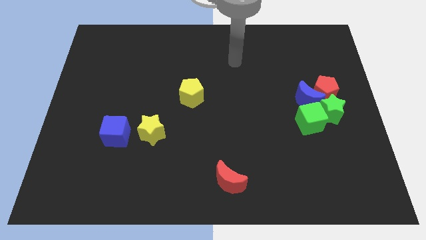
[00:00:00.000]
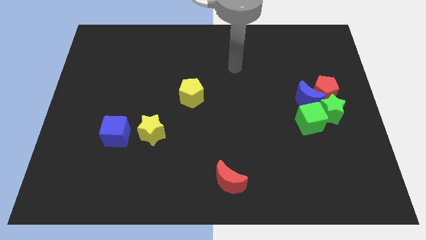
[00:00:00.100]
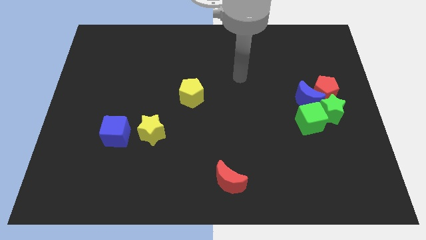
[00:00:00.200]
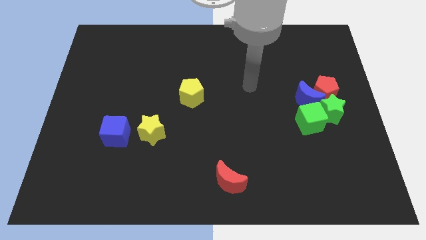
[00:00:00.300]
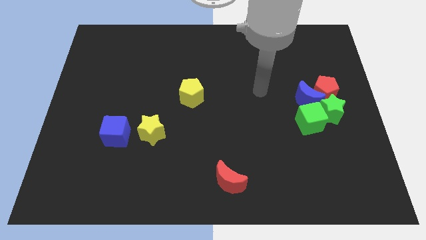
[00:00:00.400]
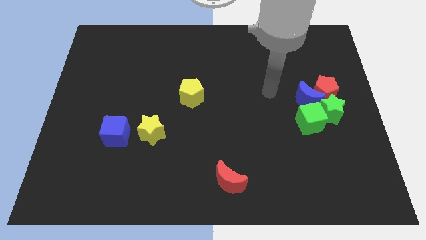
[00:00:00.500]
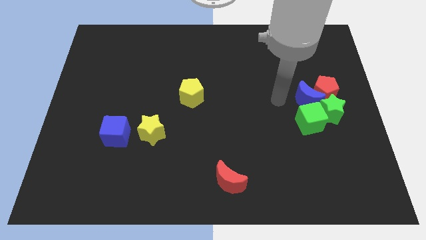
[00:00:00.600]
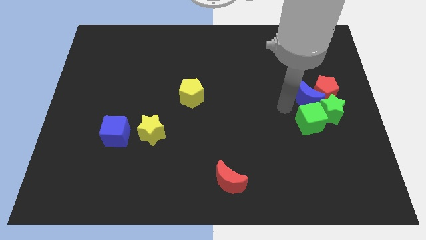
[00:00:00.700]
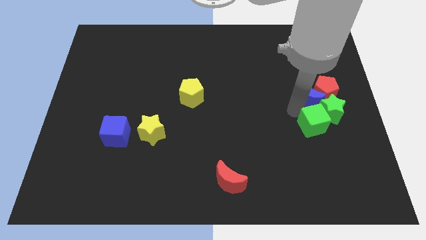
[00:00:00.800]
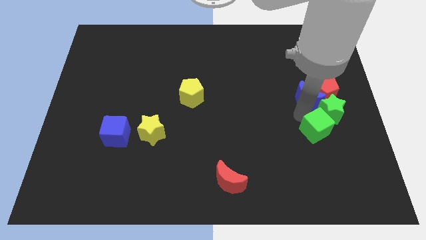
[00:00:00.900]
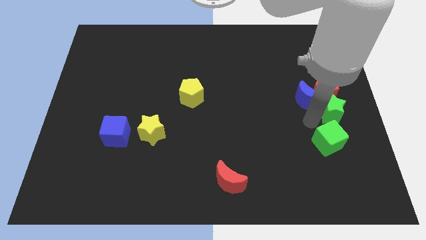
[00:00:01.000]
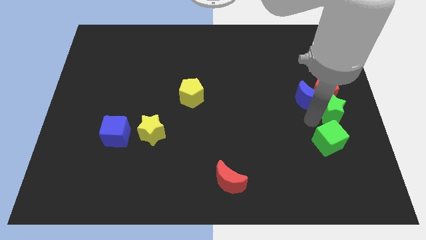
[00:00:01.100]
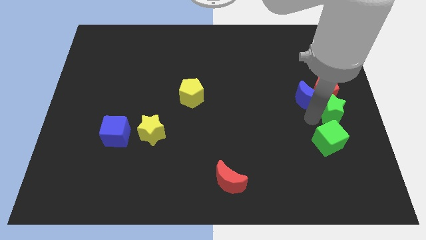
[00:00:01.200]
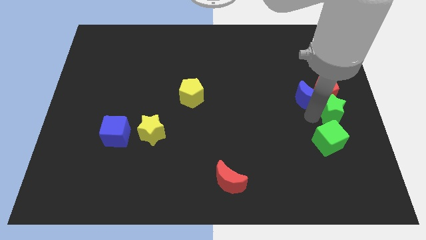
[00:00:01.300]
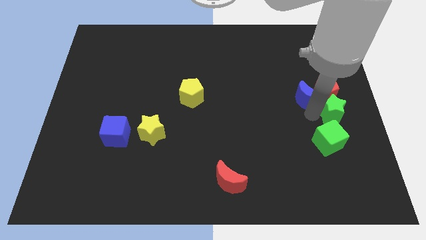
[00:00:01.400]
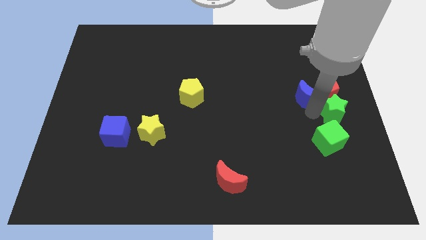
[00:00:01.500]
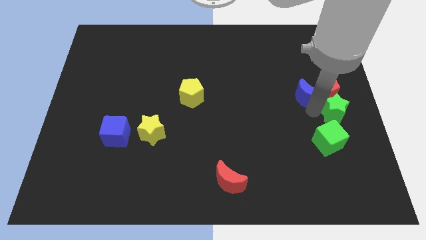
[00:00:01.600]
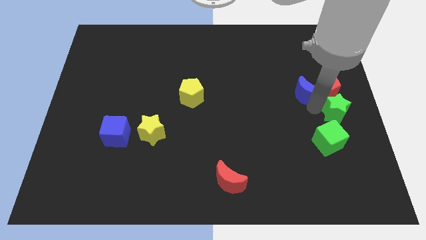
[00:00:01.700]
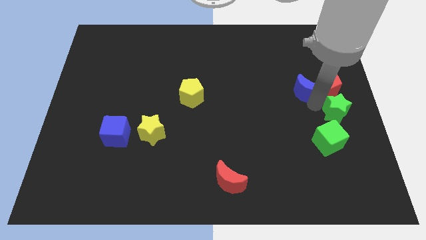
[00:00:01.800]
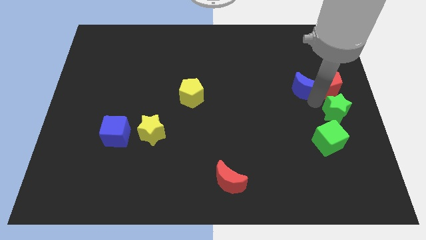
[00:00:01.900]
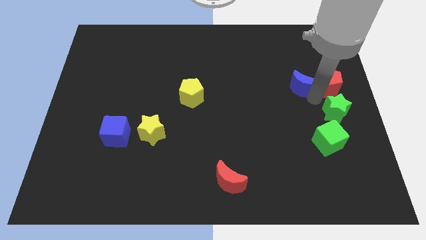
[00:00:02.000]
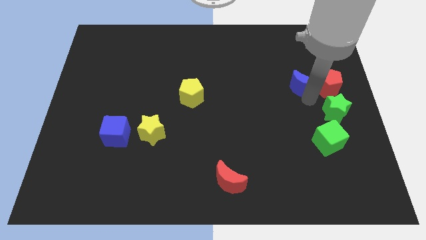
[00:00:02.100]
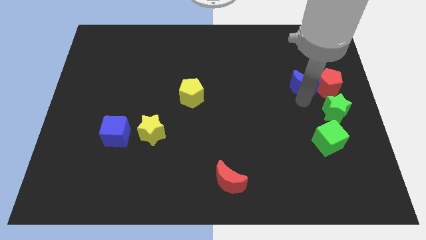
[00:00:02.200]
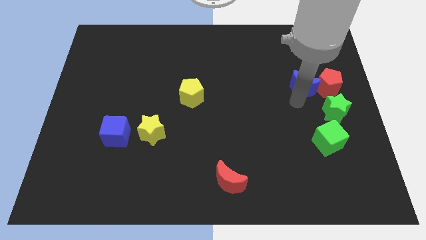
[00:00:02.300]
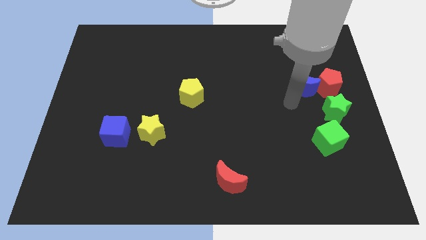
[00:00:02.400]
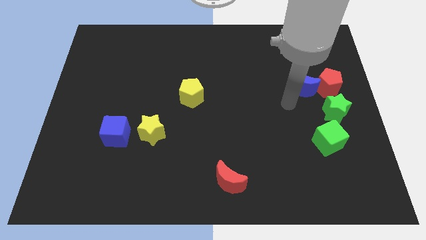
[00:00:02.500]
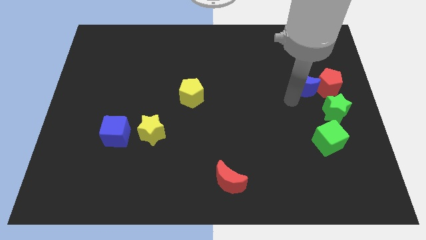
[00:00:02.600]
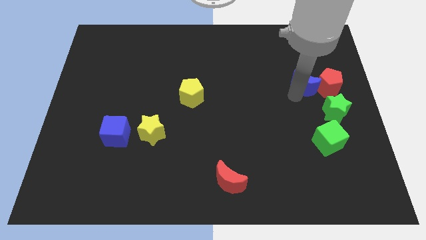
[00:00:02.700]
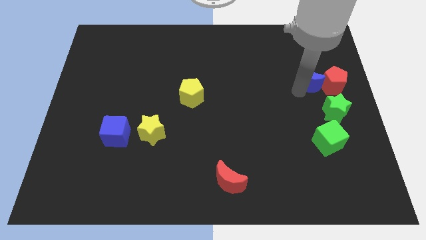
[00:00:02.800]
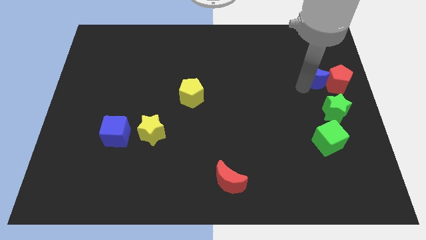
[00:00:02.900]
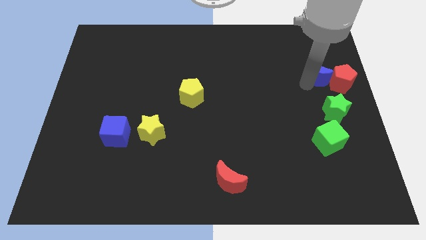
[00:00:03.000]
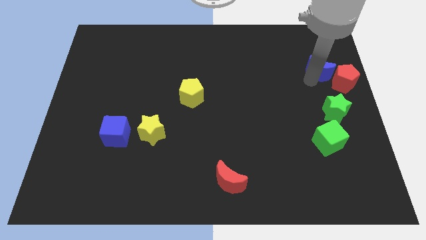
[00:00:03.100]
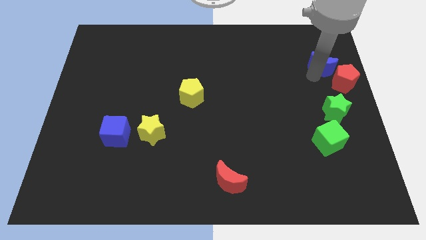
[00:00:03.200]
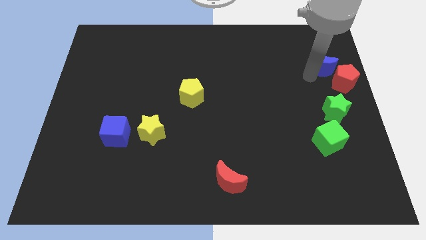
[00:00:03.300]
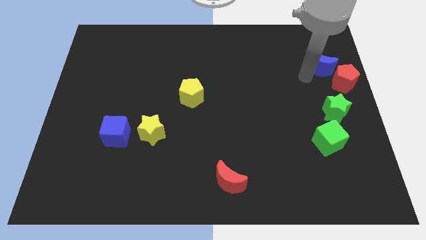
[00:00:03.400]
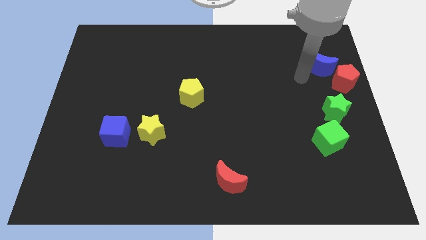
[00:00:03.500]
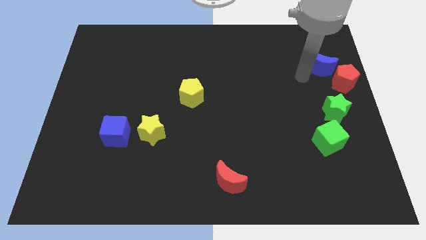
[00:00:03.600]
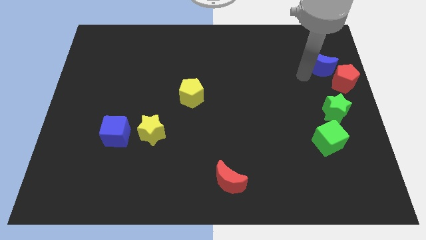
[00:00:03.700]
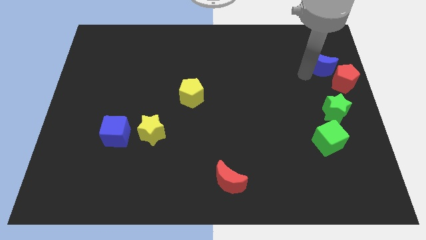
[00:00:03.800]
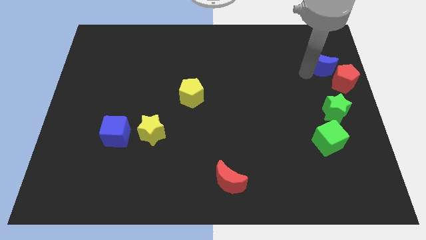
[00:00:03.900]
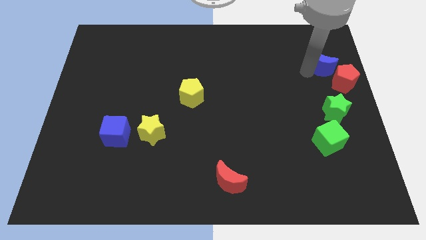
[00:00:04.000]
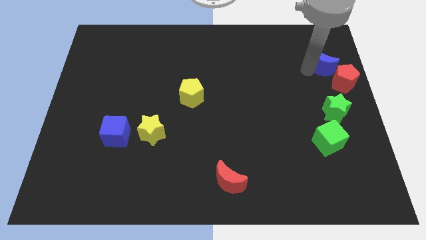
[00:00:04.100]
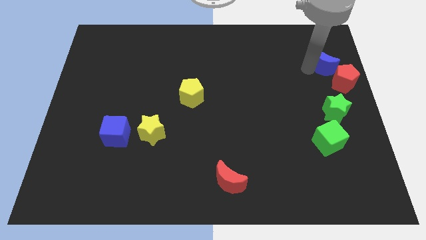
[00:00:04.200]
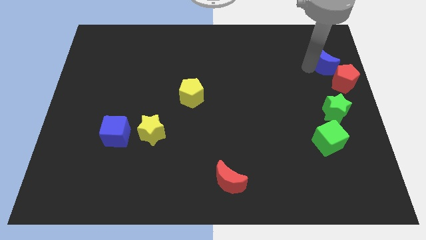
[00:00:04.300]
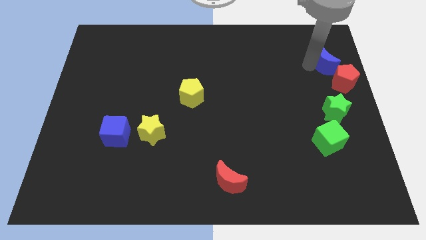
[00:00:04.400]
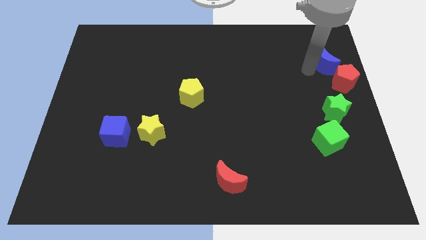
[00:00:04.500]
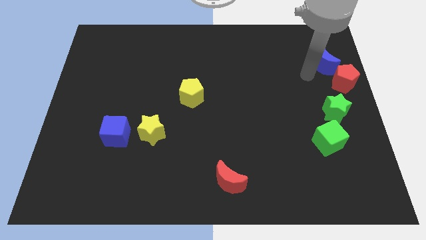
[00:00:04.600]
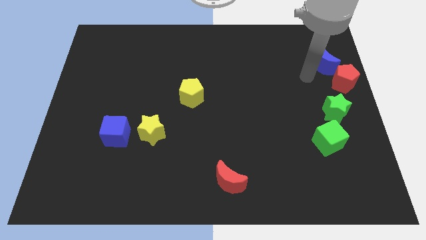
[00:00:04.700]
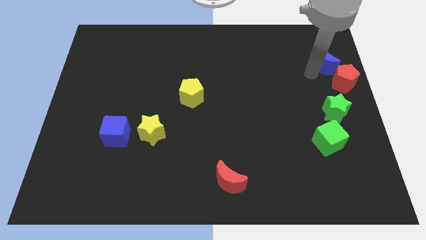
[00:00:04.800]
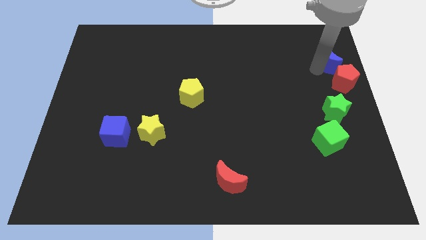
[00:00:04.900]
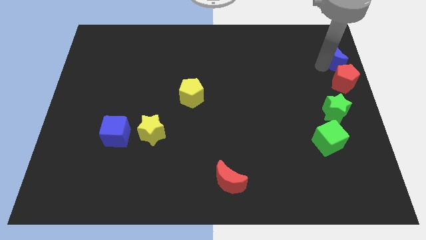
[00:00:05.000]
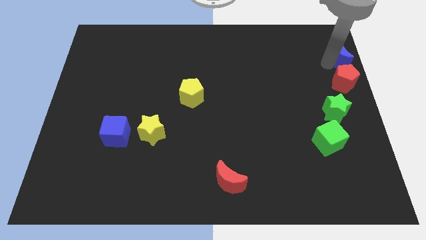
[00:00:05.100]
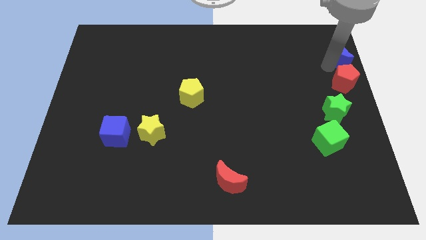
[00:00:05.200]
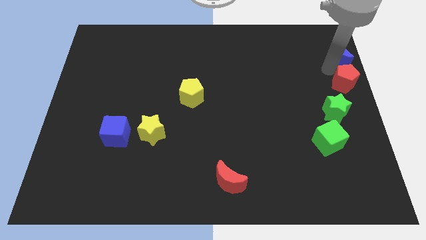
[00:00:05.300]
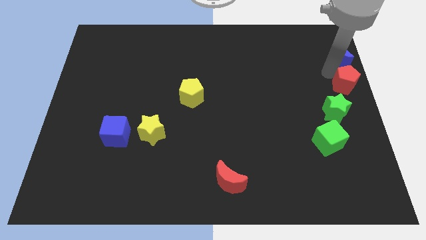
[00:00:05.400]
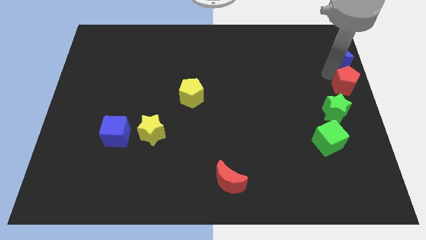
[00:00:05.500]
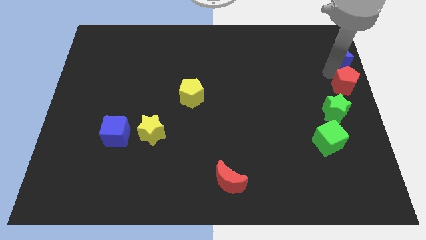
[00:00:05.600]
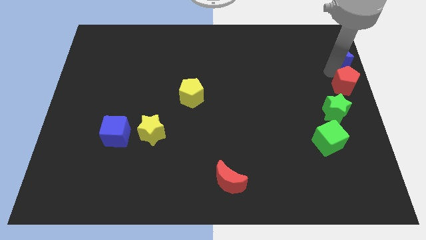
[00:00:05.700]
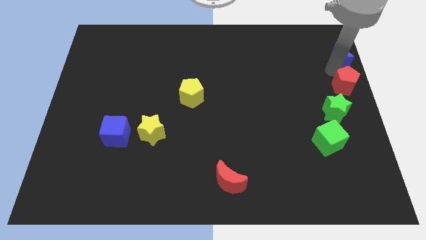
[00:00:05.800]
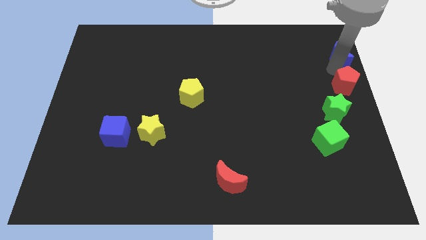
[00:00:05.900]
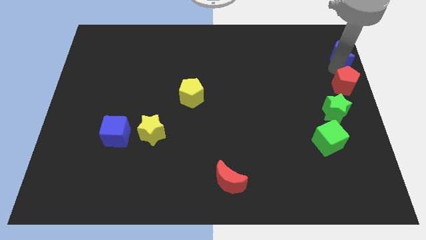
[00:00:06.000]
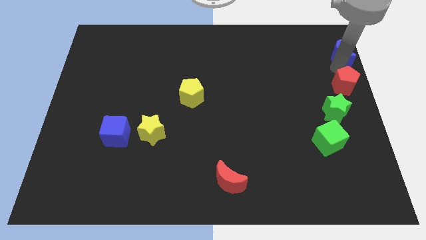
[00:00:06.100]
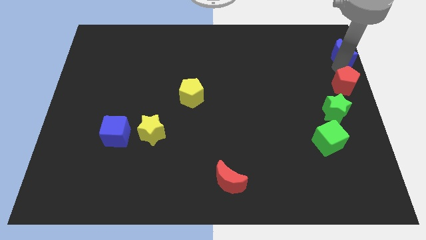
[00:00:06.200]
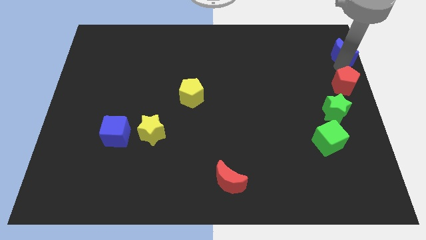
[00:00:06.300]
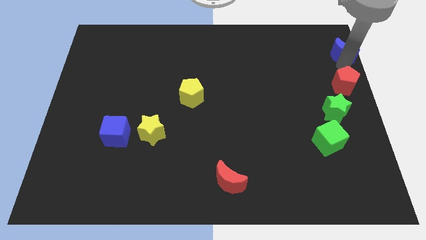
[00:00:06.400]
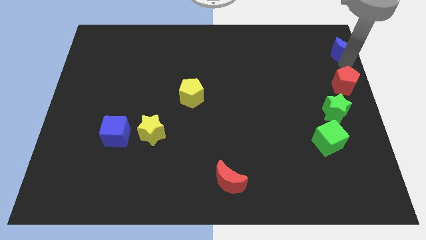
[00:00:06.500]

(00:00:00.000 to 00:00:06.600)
move the blue moon to the top right of the board
